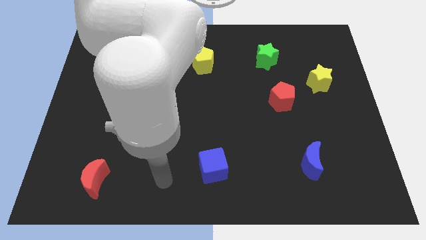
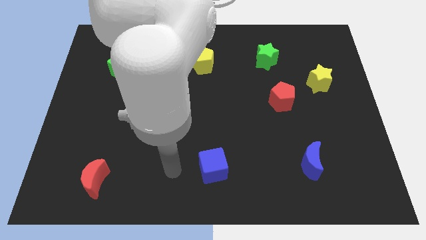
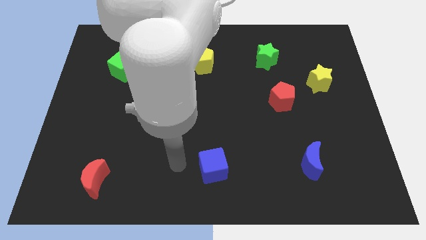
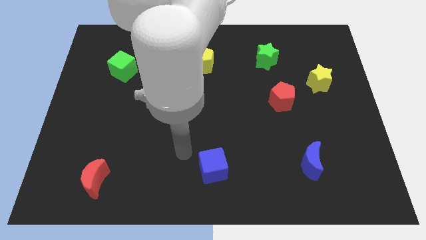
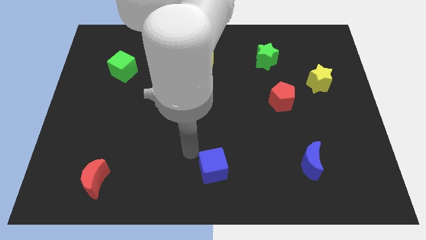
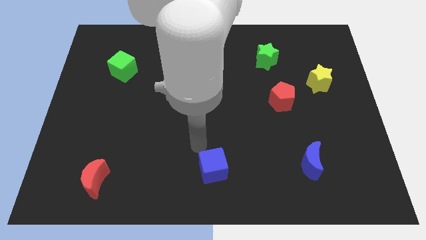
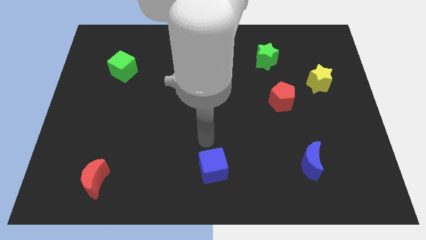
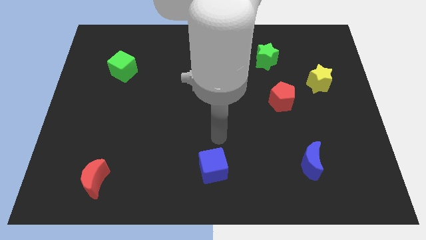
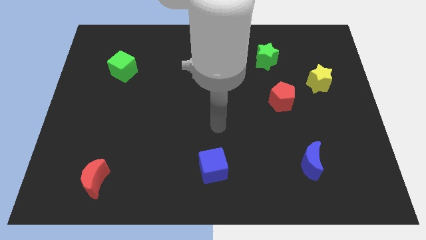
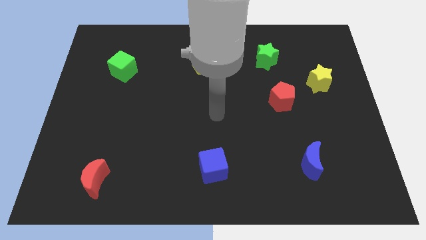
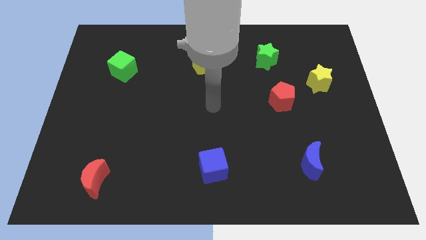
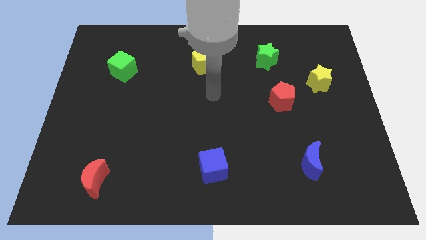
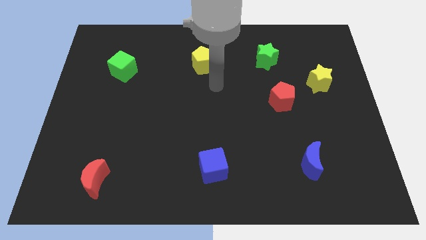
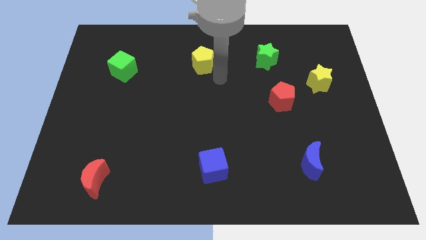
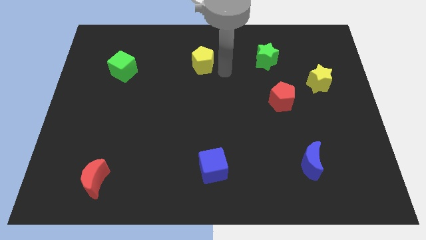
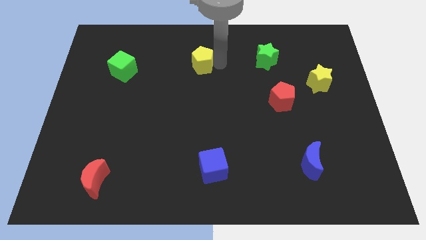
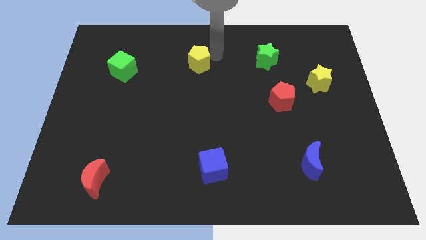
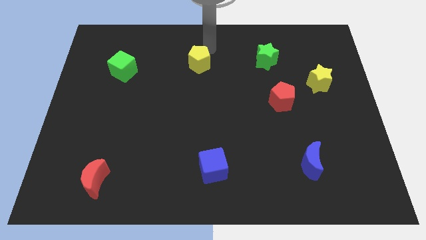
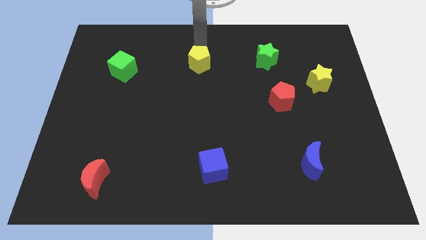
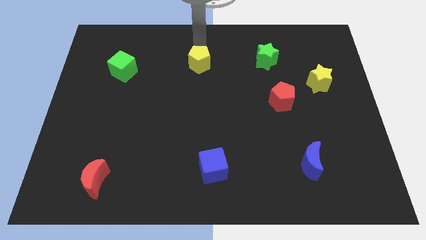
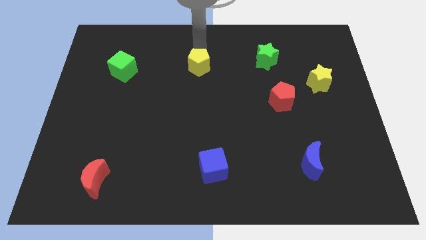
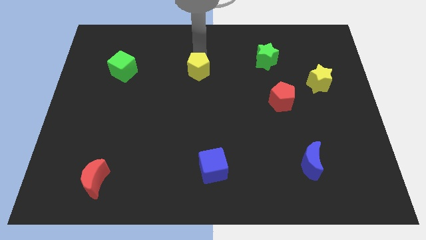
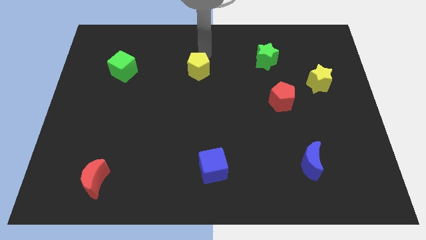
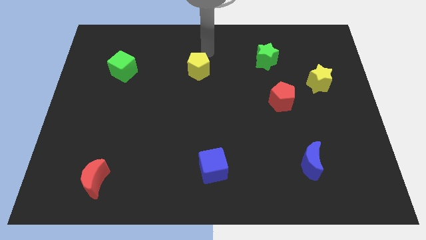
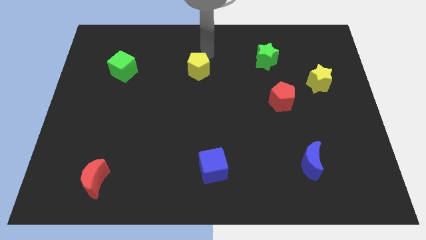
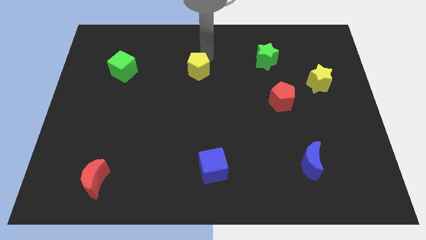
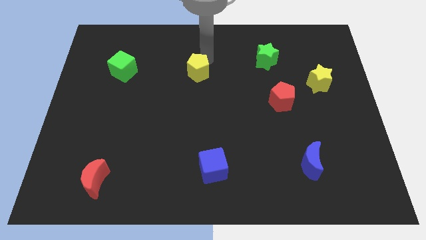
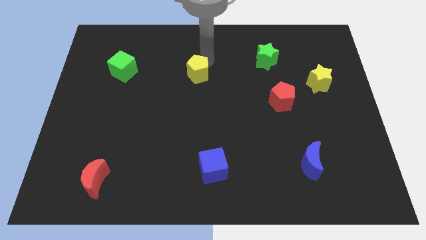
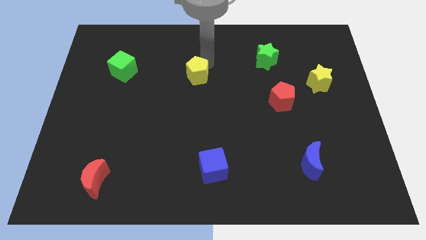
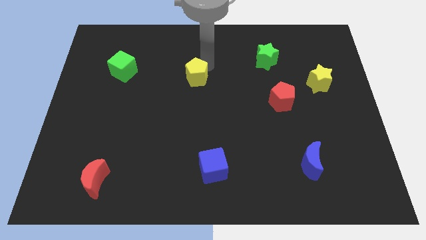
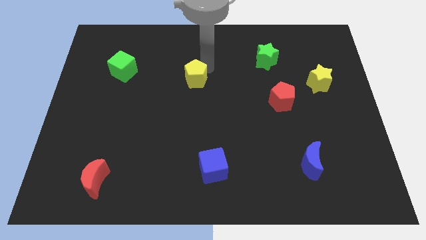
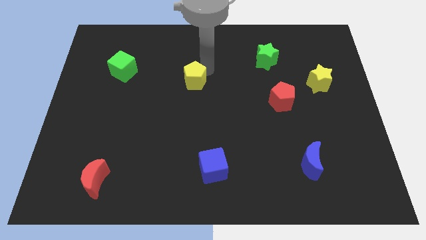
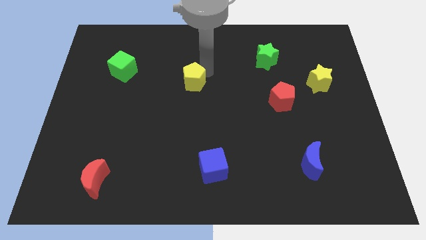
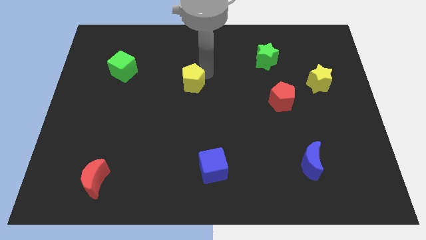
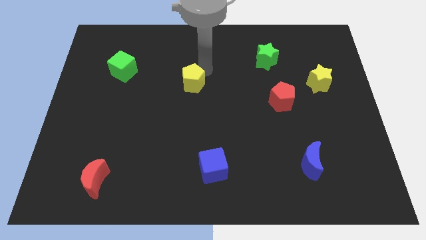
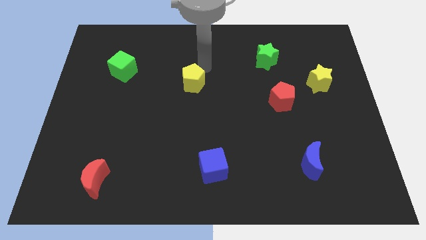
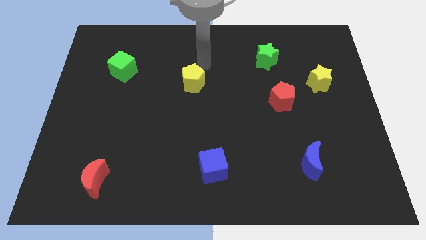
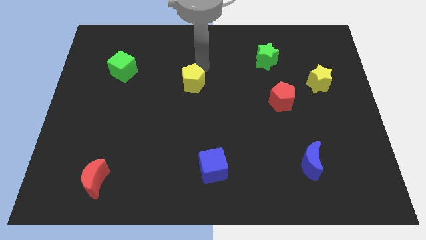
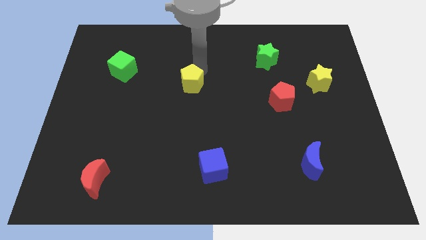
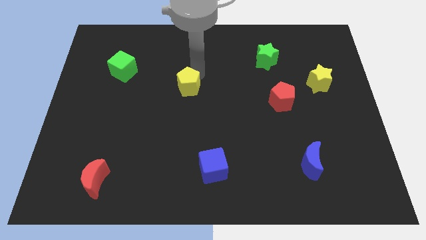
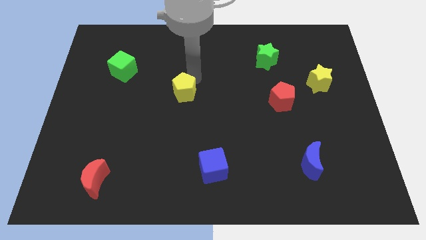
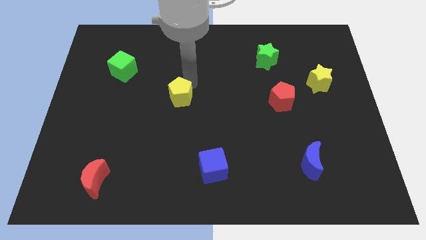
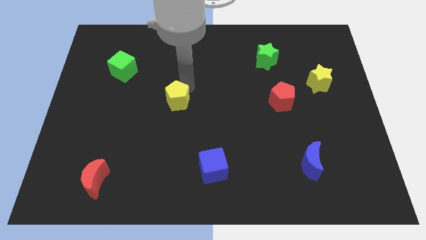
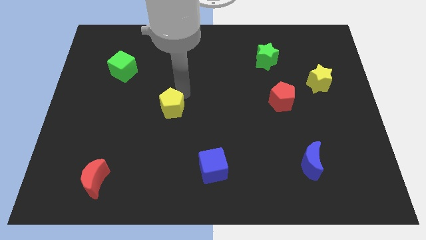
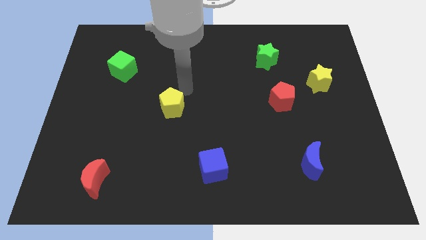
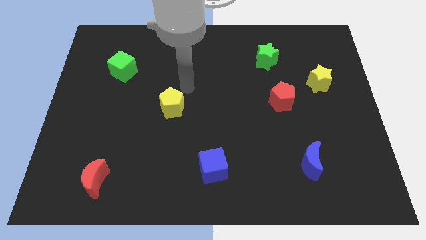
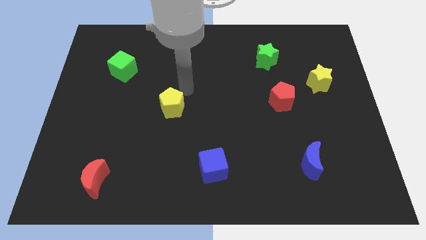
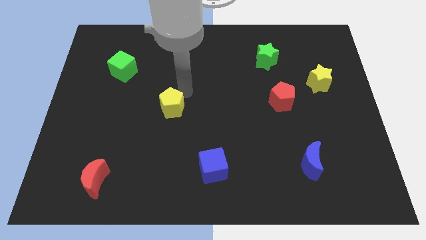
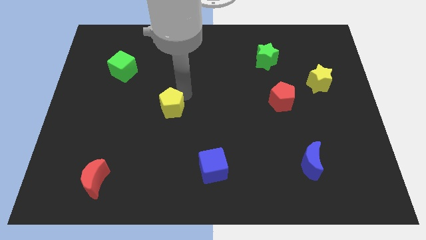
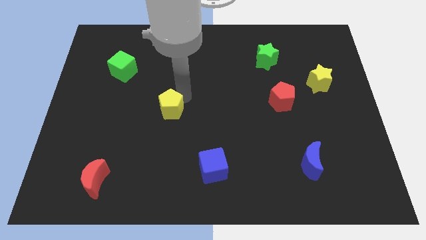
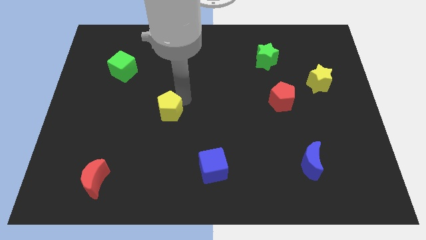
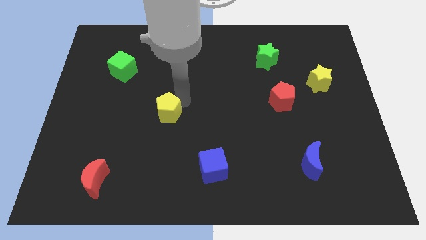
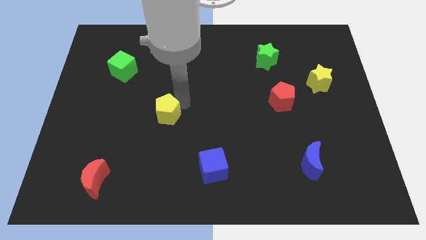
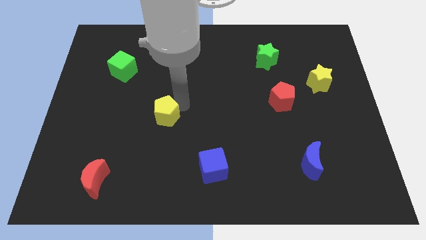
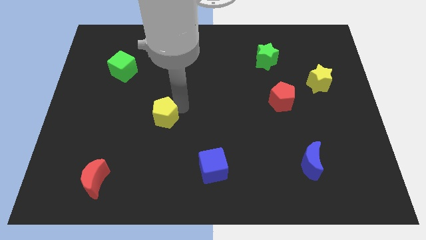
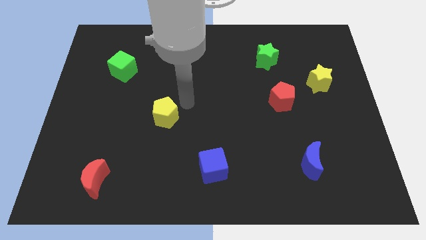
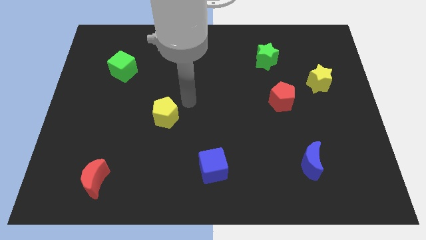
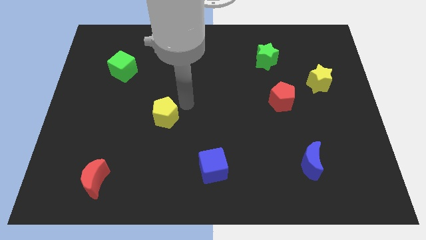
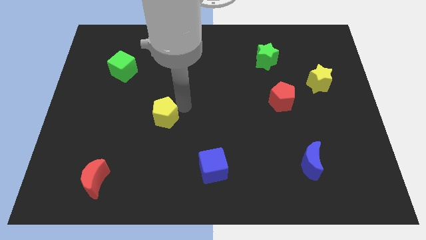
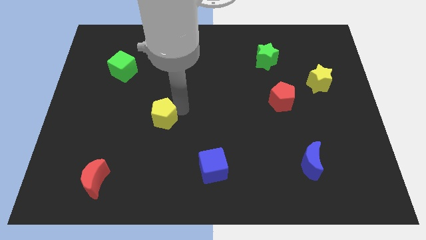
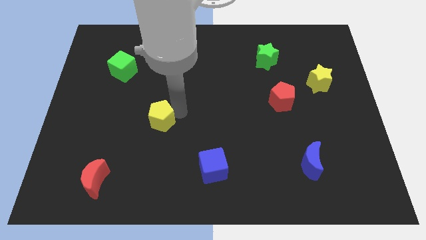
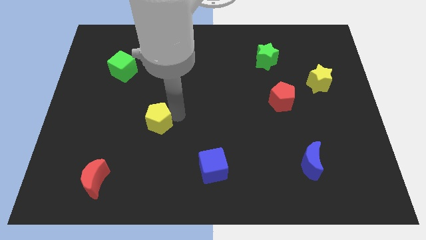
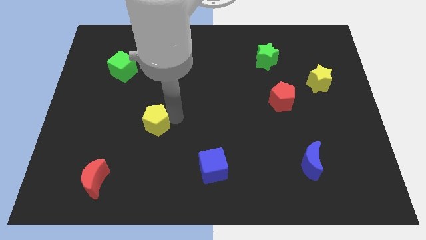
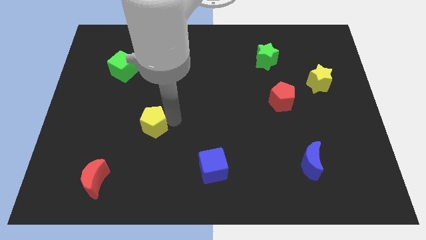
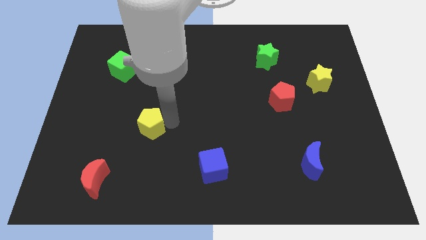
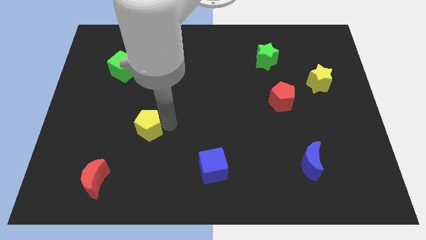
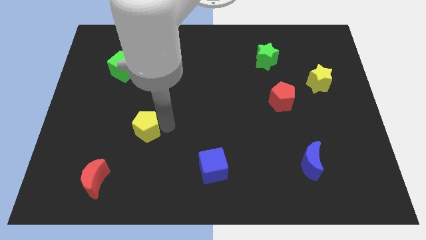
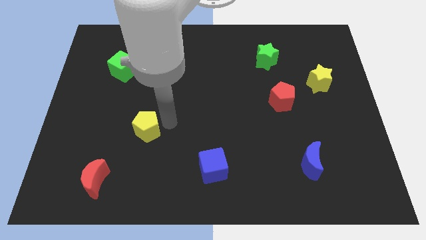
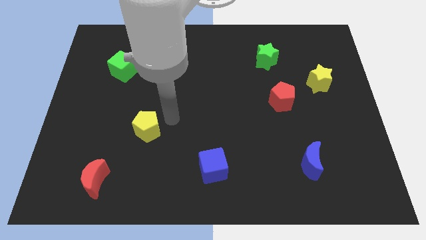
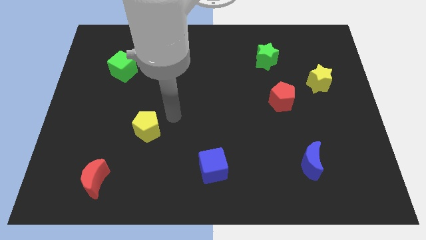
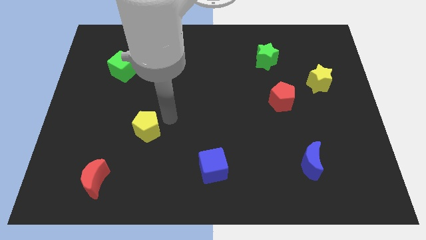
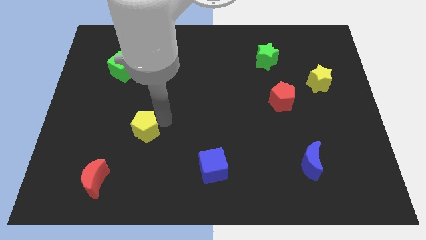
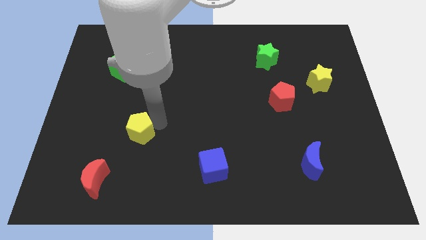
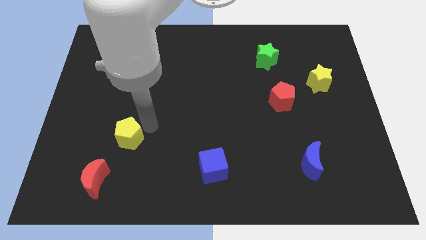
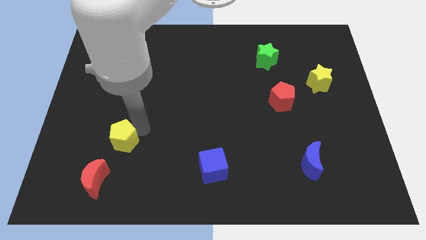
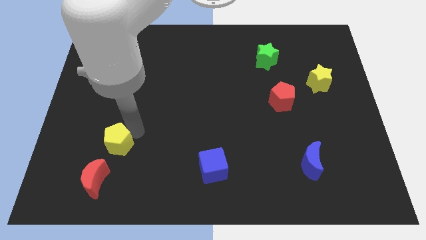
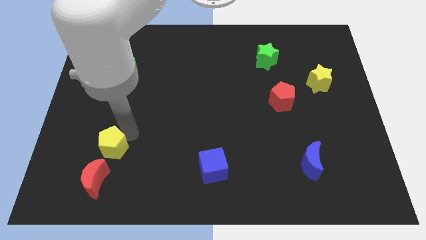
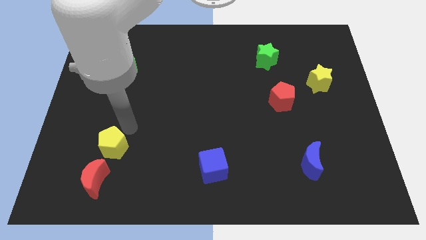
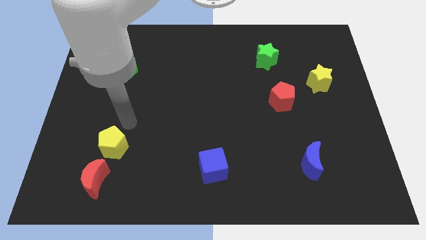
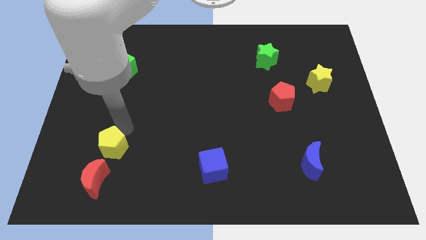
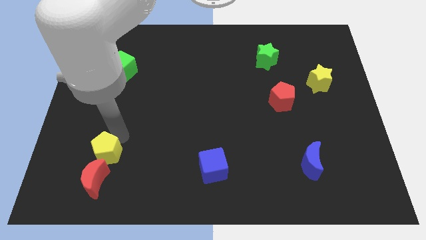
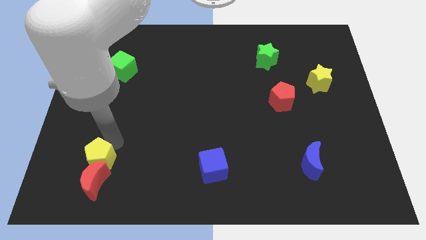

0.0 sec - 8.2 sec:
move the yellow pentagon to the red moon
